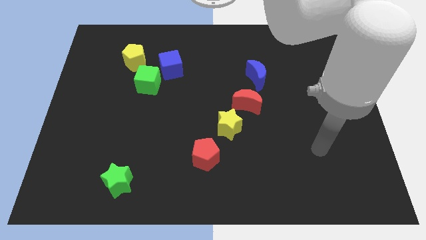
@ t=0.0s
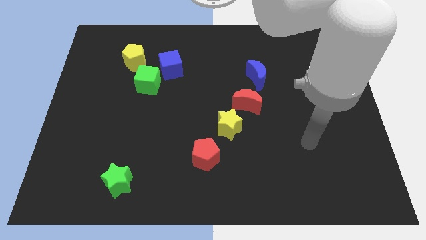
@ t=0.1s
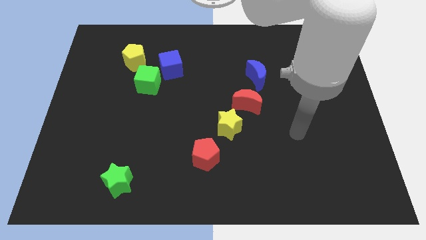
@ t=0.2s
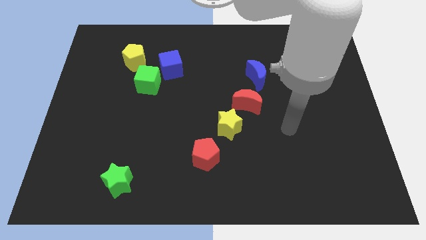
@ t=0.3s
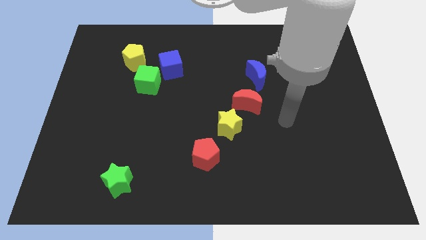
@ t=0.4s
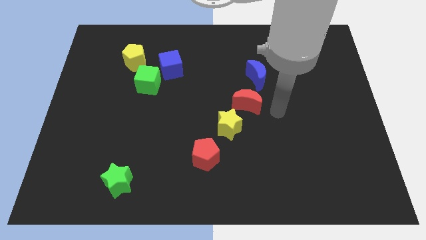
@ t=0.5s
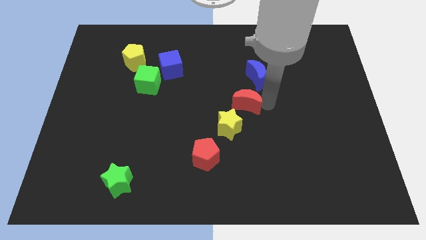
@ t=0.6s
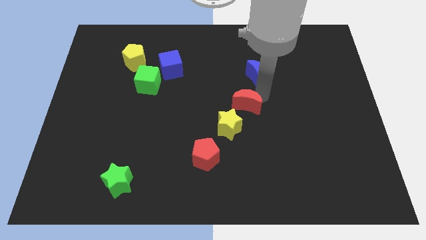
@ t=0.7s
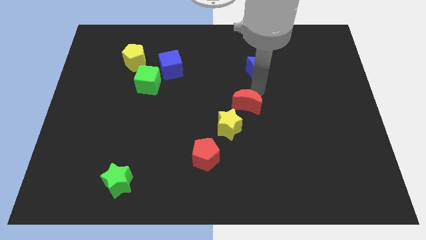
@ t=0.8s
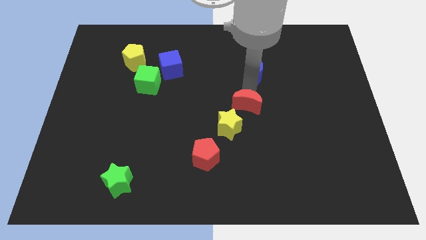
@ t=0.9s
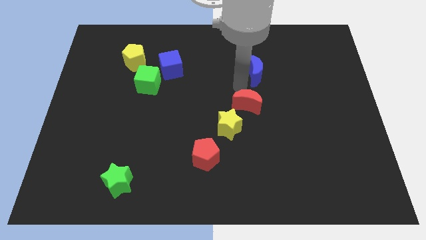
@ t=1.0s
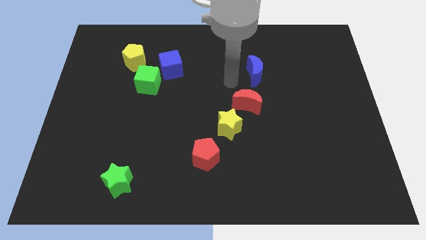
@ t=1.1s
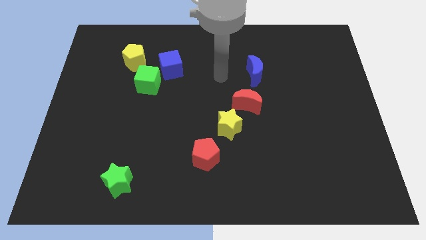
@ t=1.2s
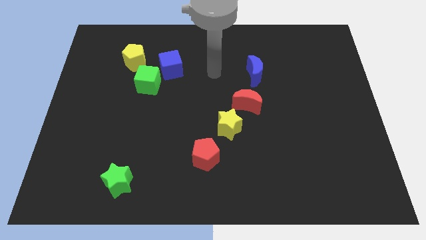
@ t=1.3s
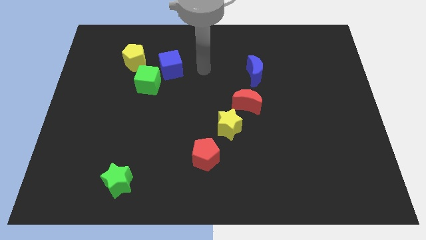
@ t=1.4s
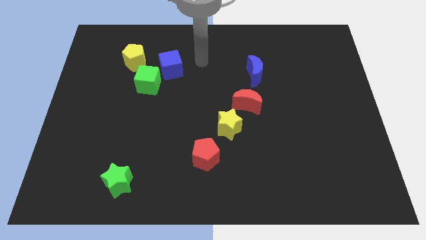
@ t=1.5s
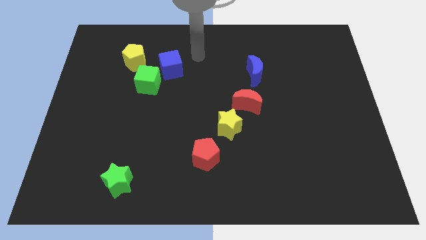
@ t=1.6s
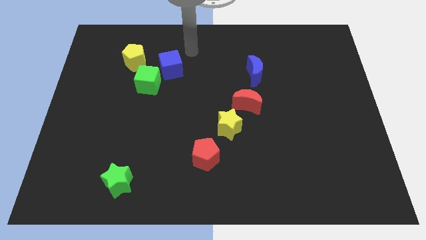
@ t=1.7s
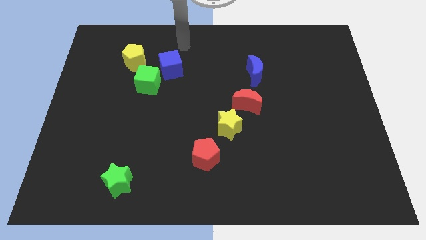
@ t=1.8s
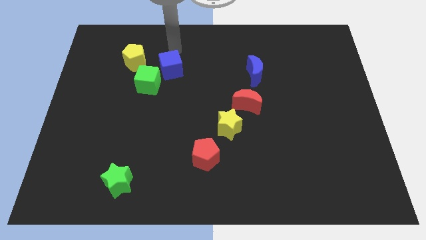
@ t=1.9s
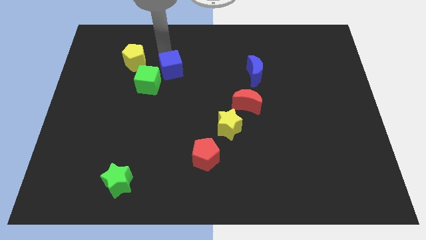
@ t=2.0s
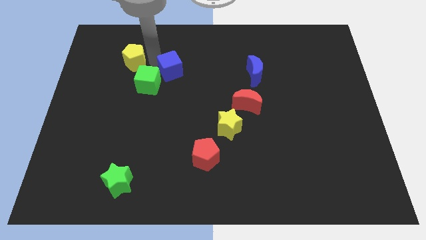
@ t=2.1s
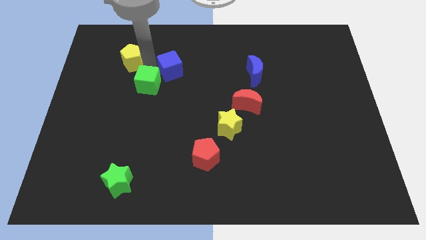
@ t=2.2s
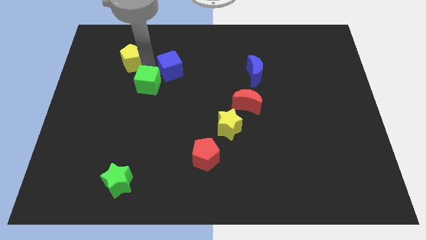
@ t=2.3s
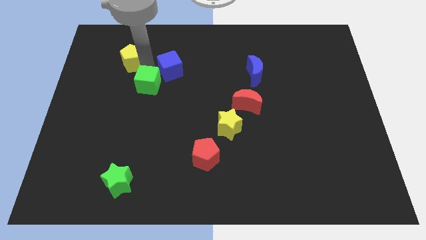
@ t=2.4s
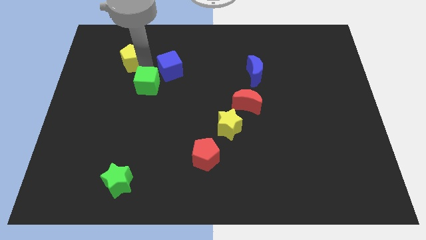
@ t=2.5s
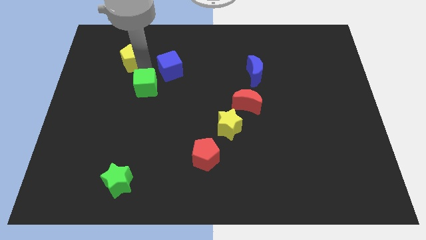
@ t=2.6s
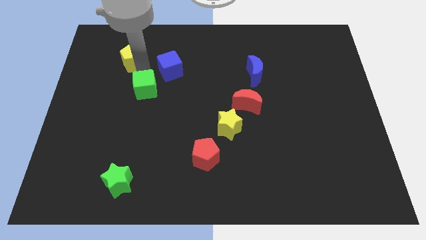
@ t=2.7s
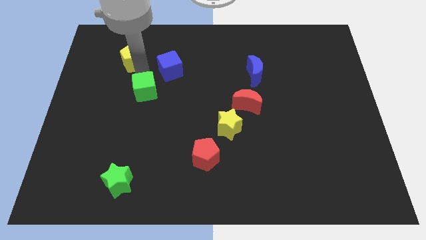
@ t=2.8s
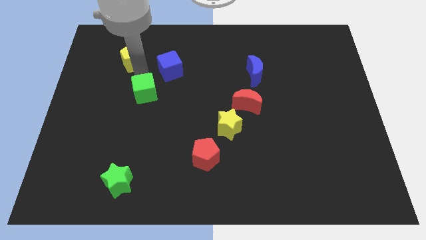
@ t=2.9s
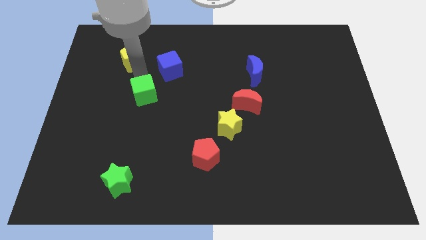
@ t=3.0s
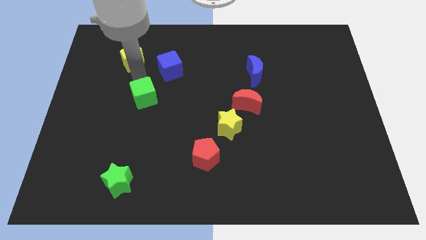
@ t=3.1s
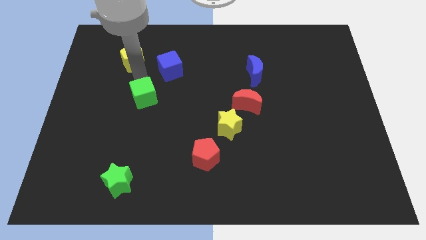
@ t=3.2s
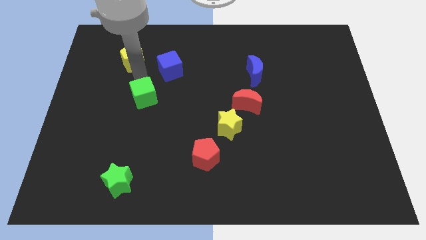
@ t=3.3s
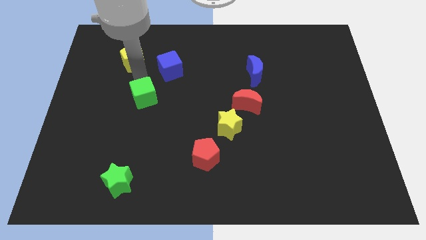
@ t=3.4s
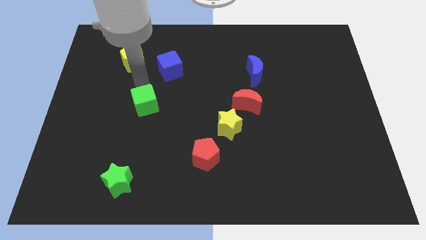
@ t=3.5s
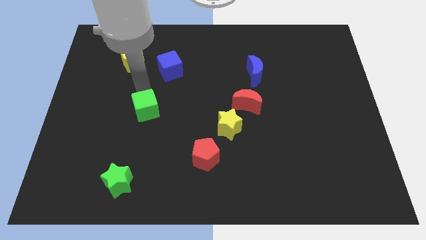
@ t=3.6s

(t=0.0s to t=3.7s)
slide the green cube a bit down

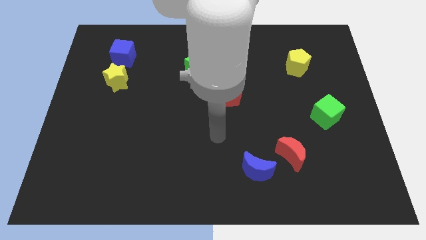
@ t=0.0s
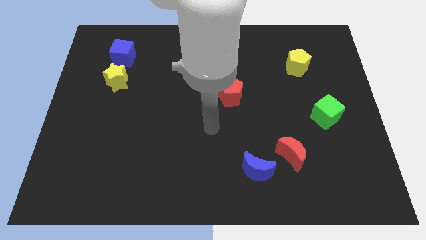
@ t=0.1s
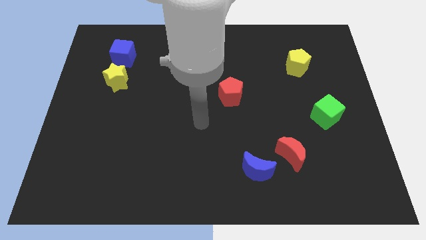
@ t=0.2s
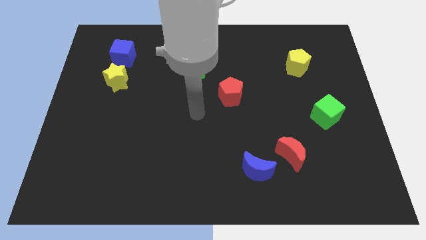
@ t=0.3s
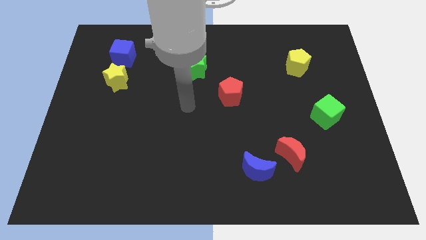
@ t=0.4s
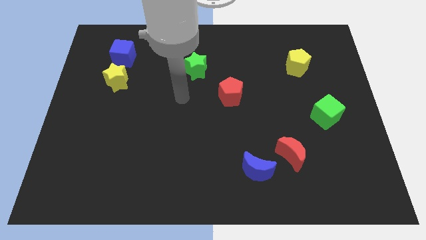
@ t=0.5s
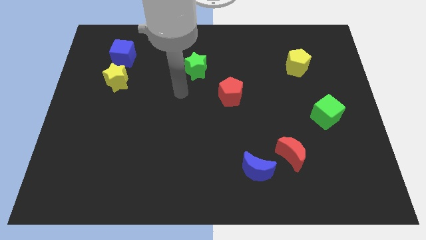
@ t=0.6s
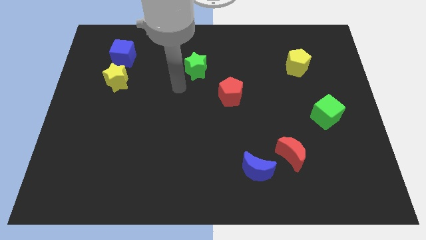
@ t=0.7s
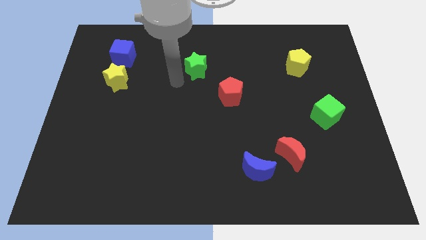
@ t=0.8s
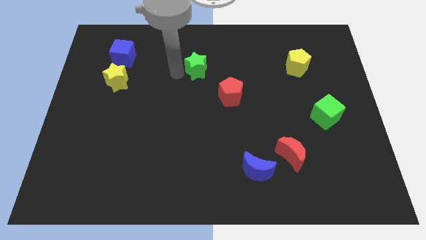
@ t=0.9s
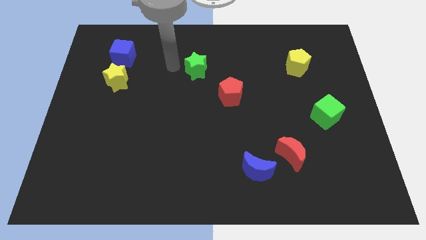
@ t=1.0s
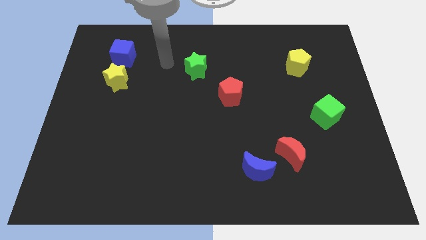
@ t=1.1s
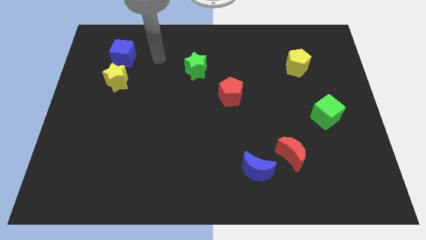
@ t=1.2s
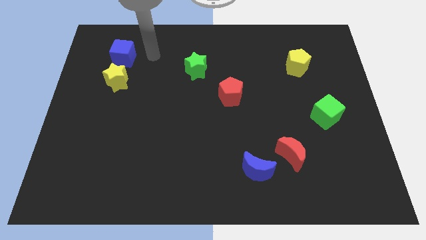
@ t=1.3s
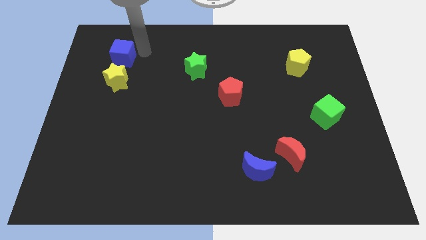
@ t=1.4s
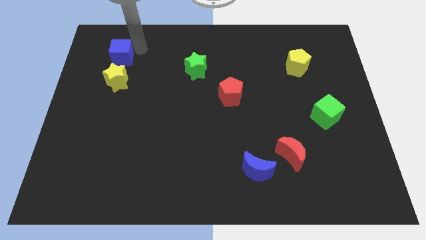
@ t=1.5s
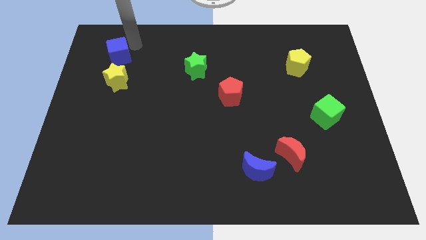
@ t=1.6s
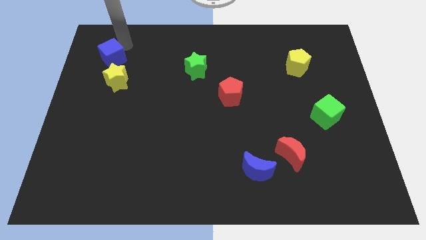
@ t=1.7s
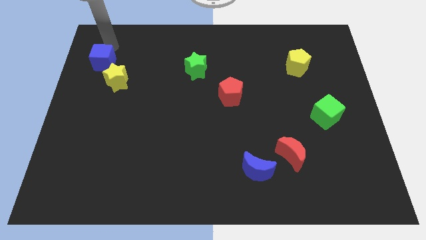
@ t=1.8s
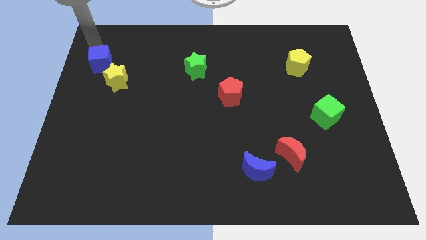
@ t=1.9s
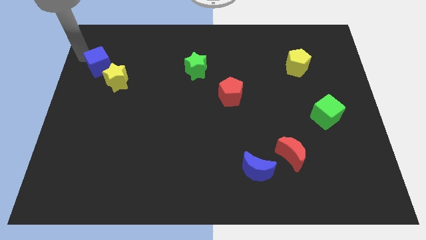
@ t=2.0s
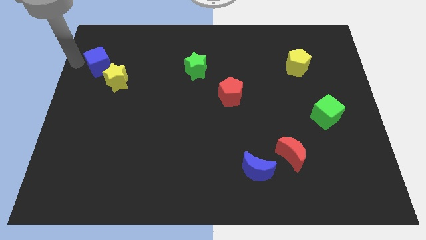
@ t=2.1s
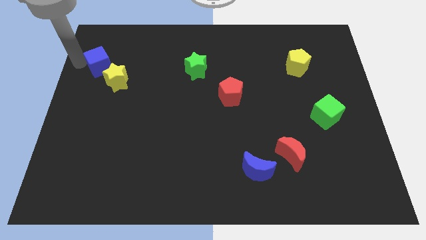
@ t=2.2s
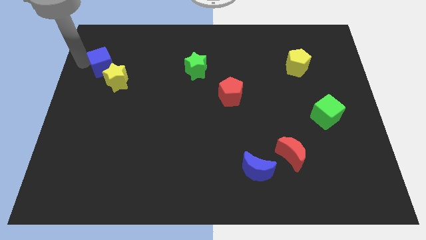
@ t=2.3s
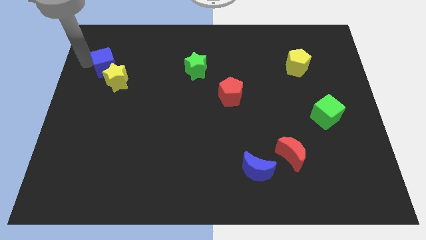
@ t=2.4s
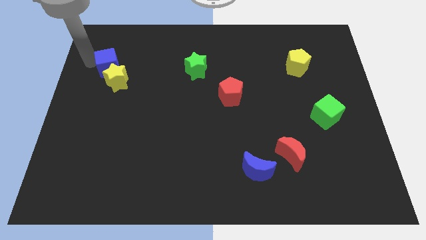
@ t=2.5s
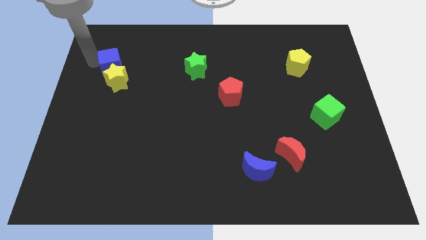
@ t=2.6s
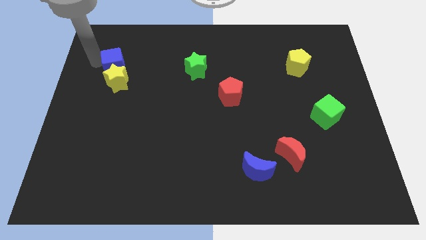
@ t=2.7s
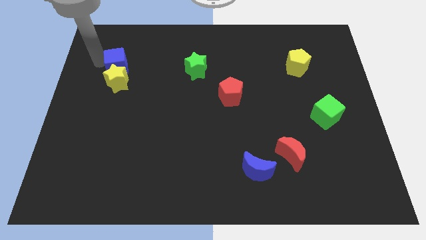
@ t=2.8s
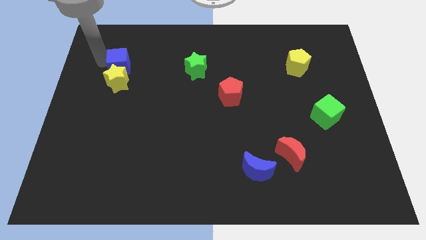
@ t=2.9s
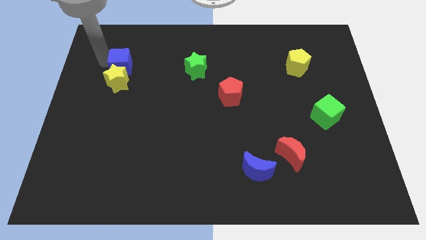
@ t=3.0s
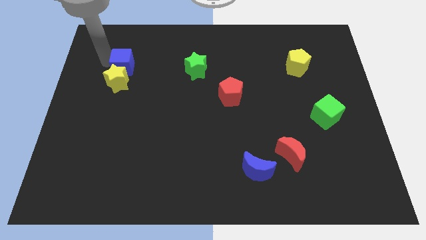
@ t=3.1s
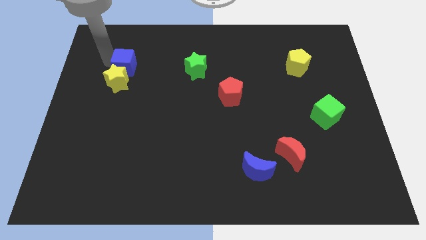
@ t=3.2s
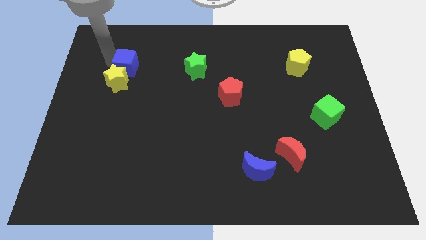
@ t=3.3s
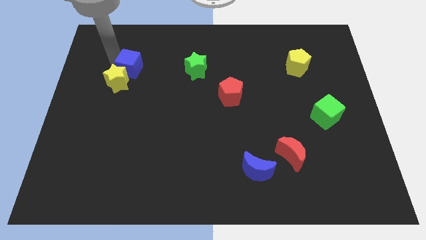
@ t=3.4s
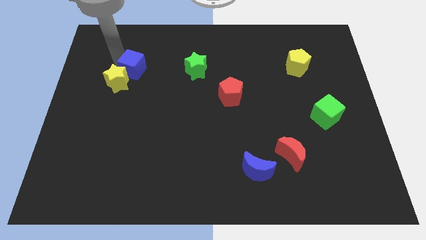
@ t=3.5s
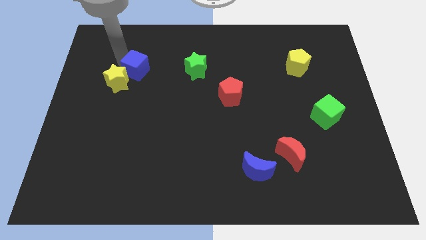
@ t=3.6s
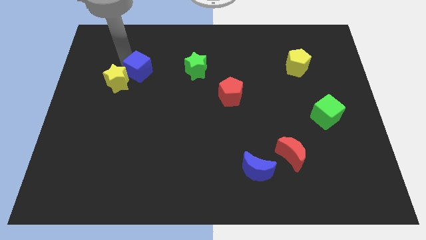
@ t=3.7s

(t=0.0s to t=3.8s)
slightly move the blue cube down and to the right

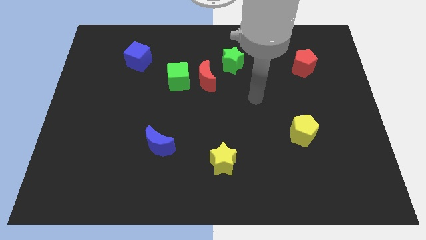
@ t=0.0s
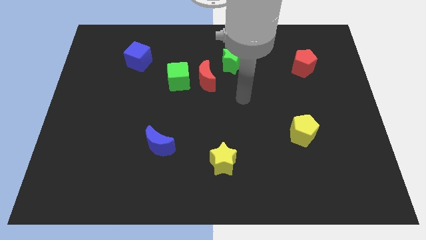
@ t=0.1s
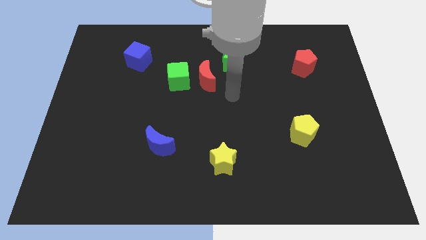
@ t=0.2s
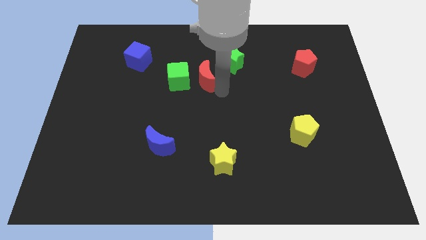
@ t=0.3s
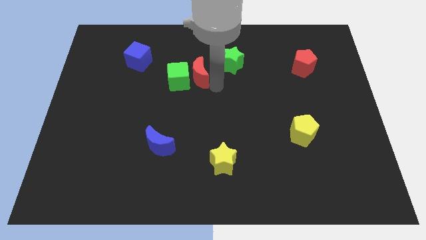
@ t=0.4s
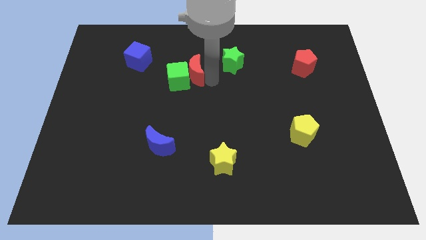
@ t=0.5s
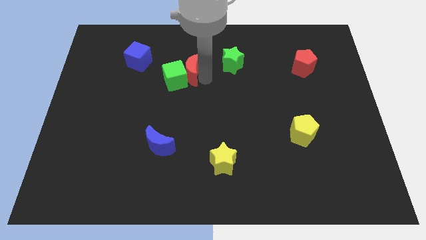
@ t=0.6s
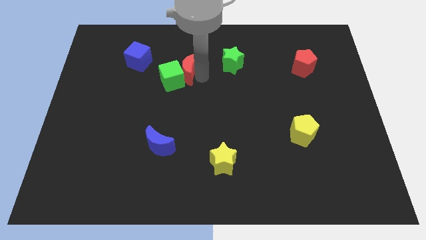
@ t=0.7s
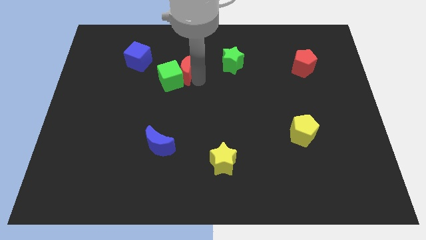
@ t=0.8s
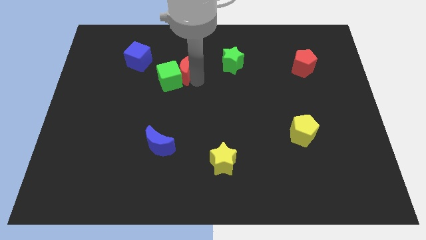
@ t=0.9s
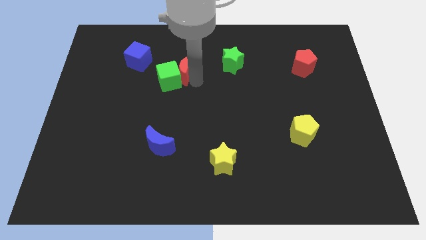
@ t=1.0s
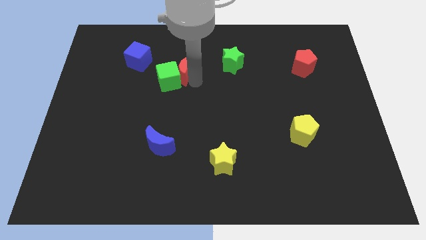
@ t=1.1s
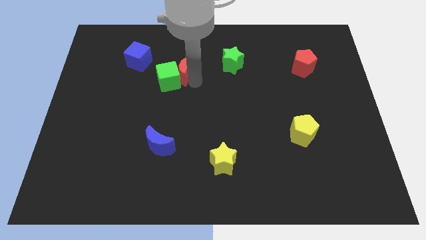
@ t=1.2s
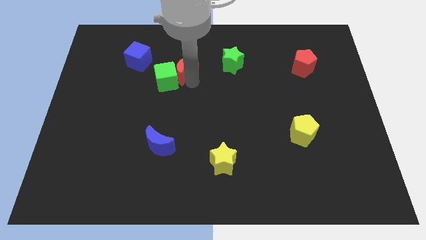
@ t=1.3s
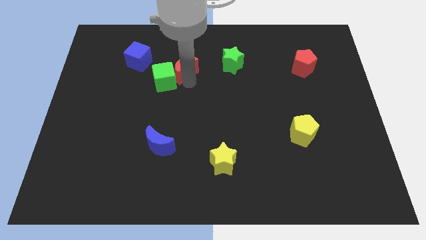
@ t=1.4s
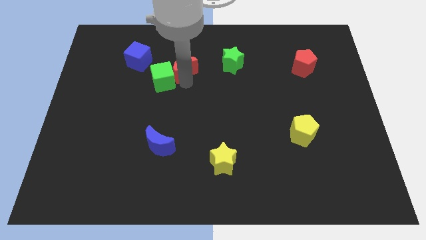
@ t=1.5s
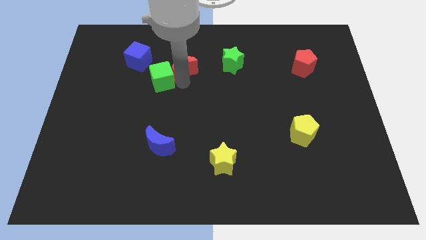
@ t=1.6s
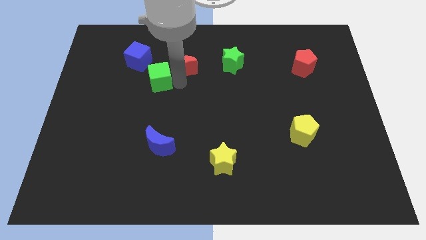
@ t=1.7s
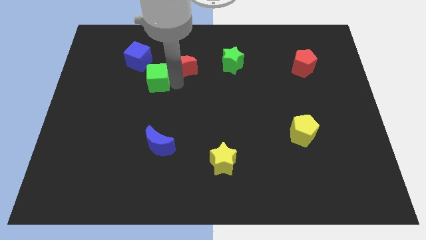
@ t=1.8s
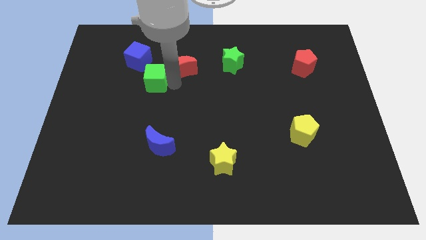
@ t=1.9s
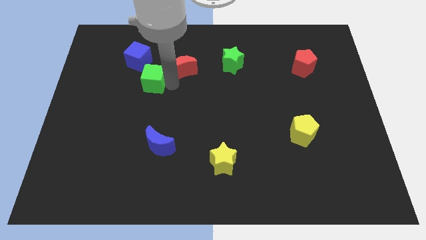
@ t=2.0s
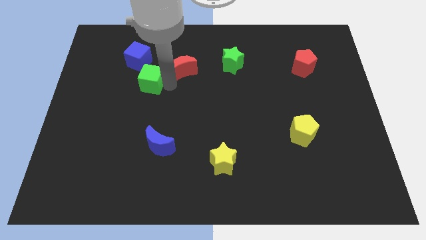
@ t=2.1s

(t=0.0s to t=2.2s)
slide the green cube slightly left
